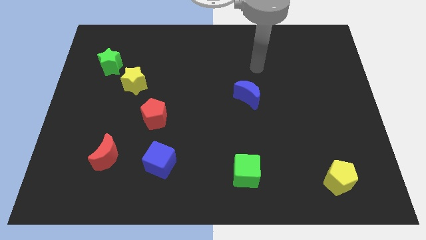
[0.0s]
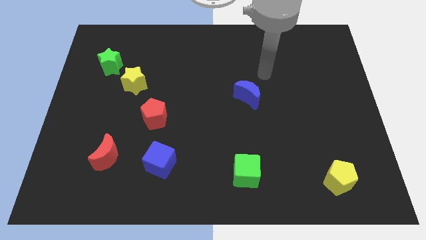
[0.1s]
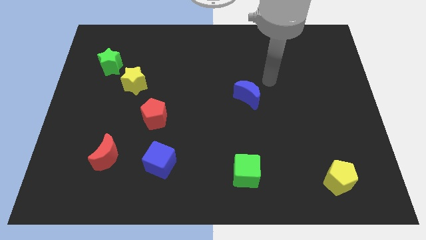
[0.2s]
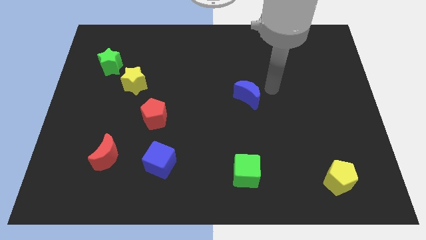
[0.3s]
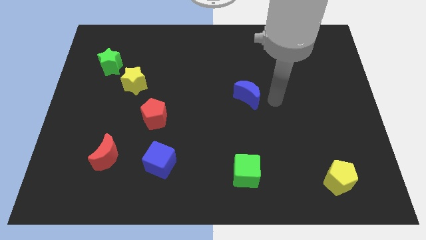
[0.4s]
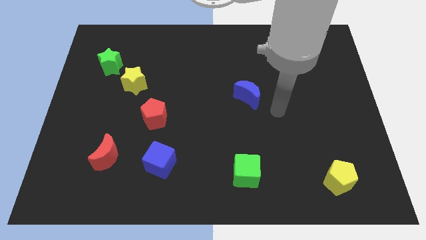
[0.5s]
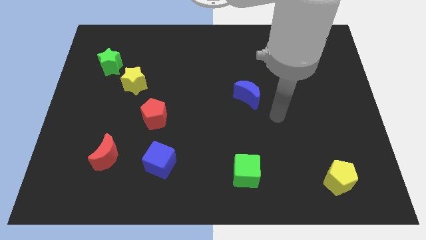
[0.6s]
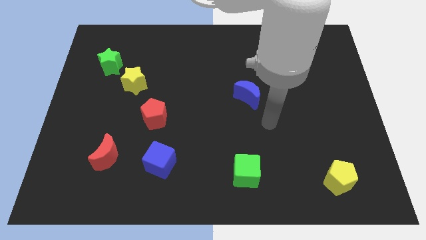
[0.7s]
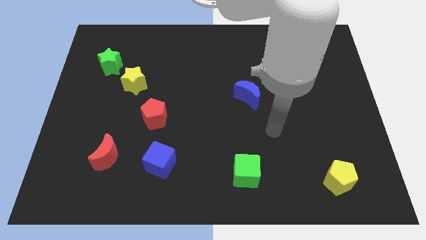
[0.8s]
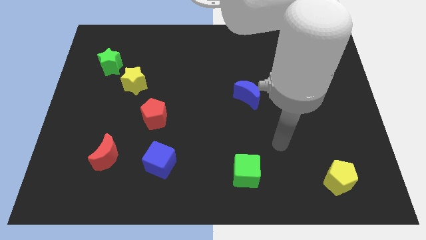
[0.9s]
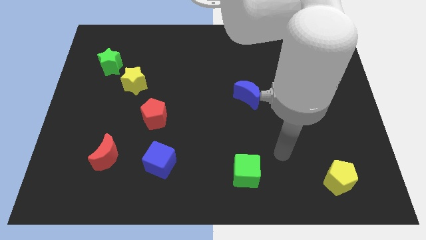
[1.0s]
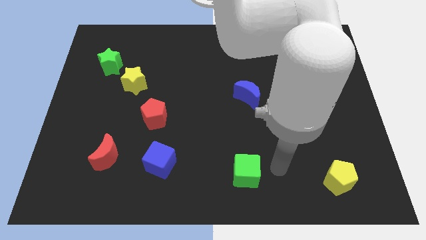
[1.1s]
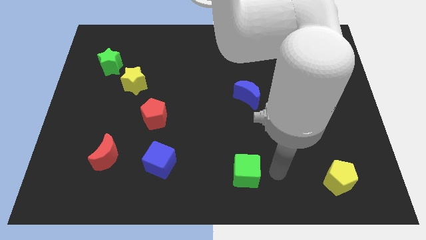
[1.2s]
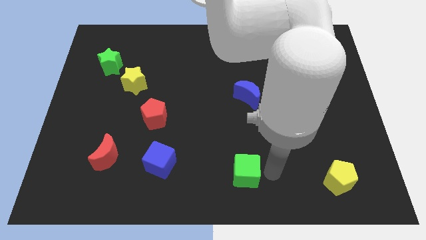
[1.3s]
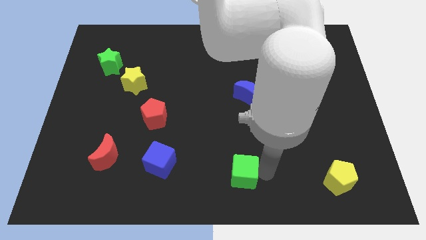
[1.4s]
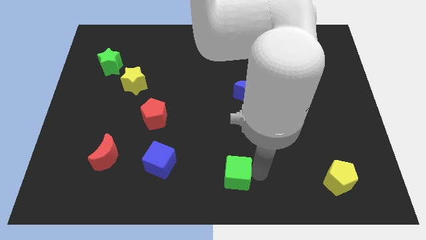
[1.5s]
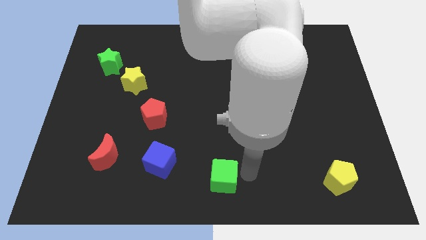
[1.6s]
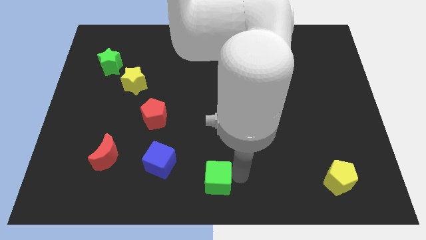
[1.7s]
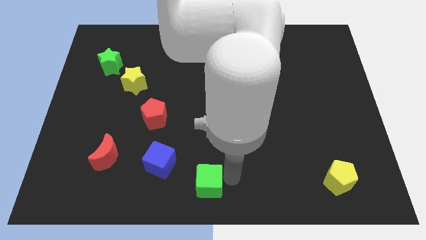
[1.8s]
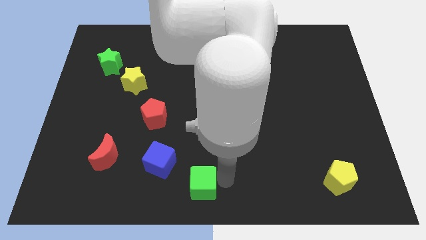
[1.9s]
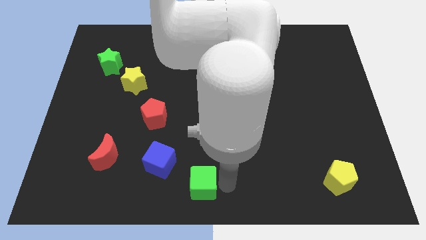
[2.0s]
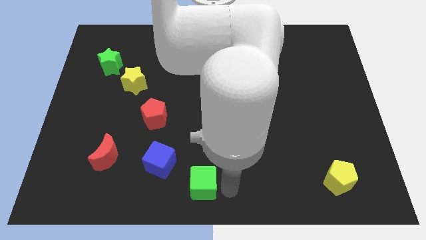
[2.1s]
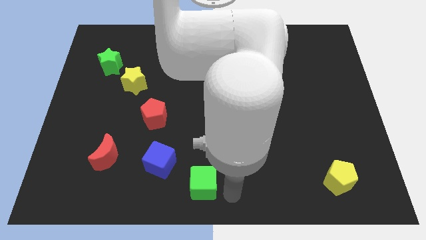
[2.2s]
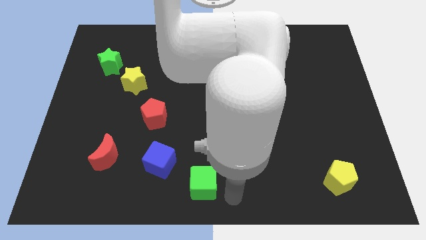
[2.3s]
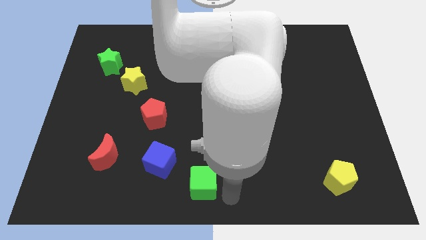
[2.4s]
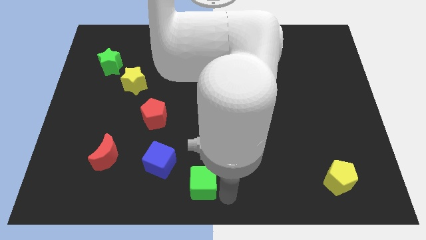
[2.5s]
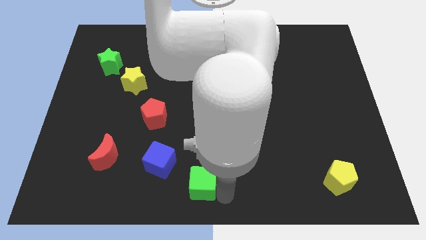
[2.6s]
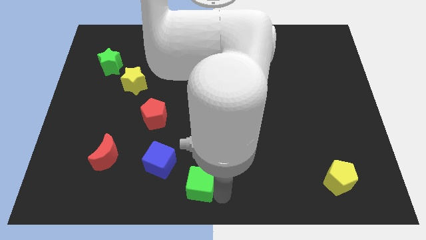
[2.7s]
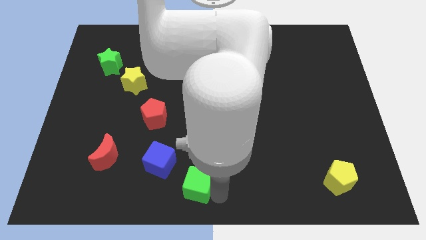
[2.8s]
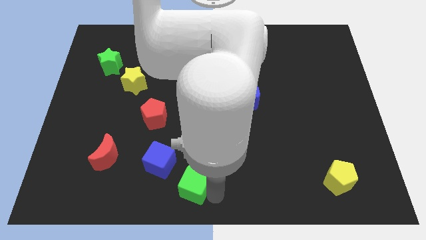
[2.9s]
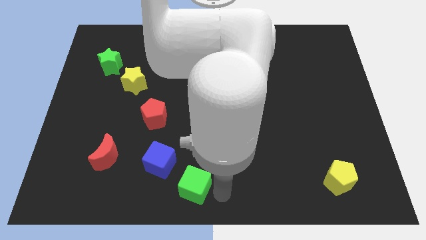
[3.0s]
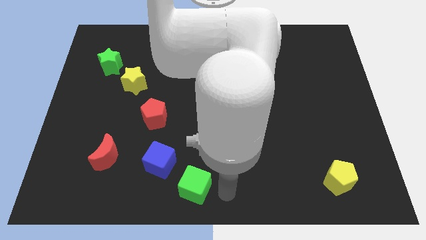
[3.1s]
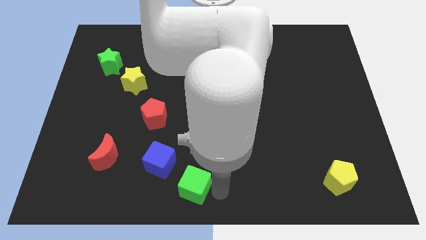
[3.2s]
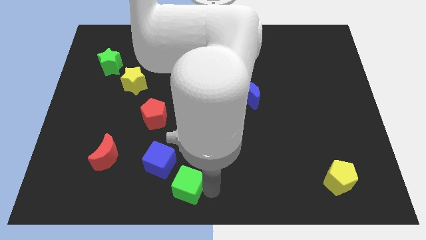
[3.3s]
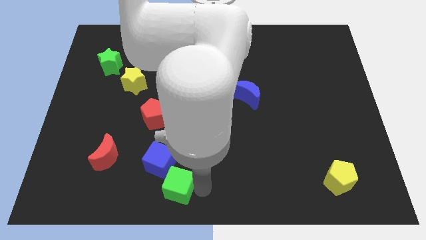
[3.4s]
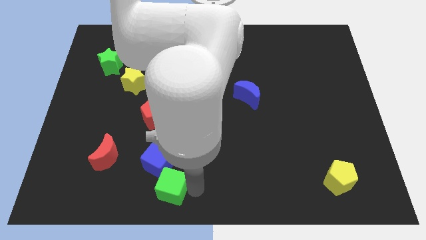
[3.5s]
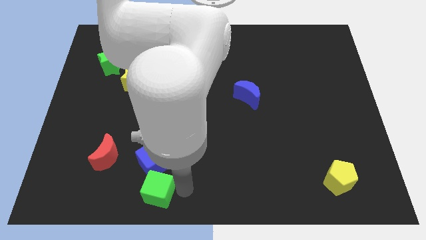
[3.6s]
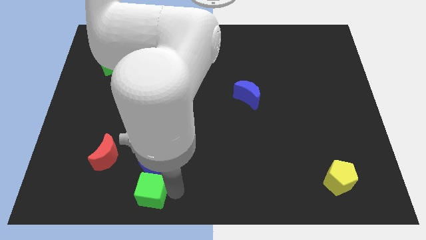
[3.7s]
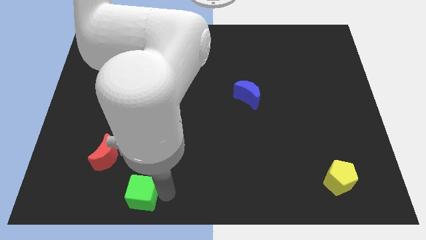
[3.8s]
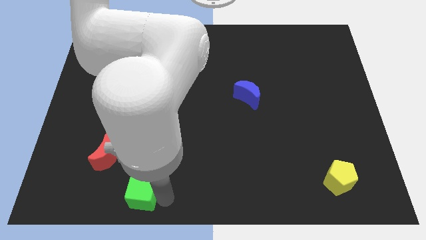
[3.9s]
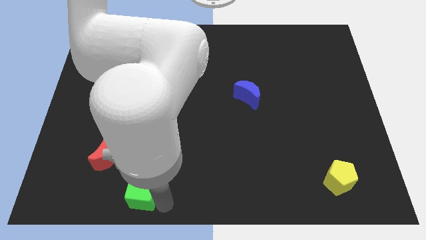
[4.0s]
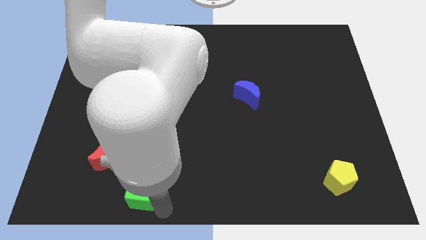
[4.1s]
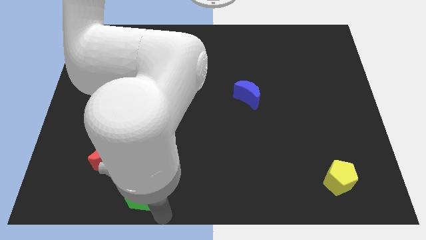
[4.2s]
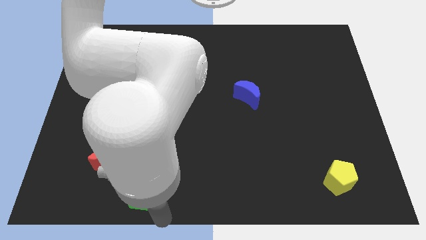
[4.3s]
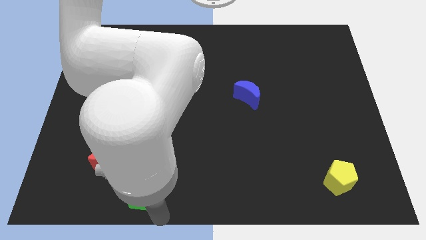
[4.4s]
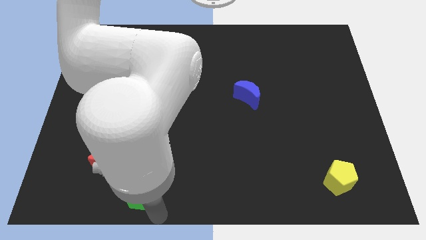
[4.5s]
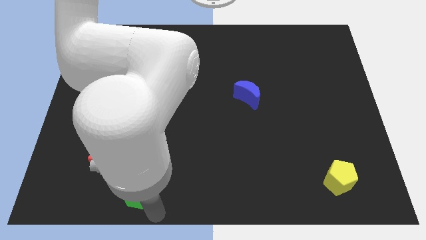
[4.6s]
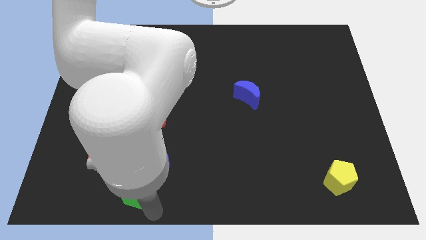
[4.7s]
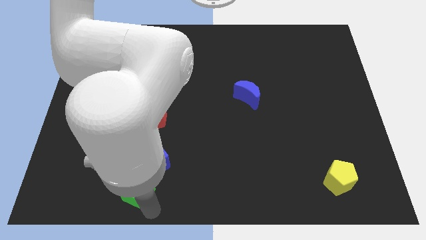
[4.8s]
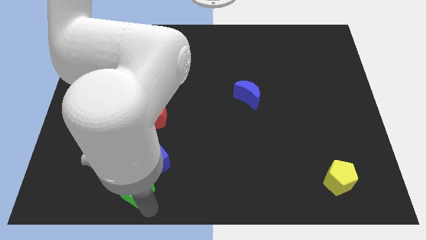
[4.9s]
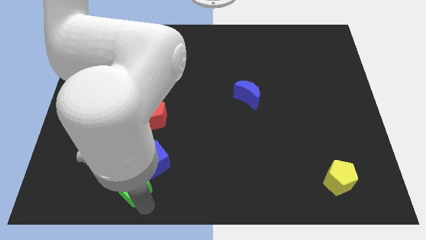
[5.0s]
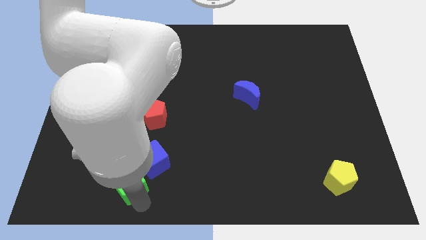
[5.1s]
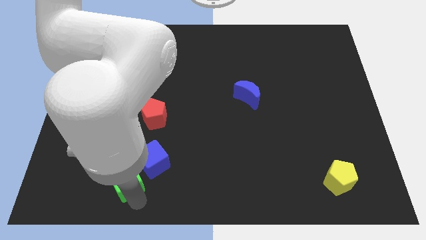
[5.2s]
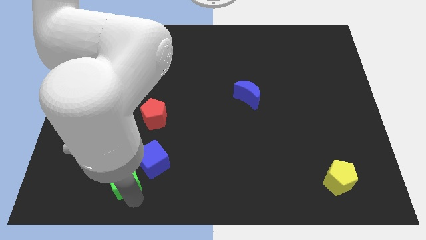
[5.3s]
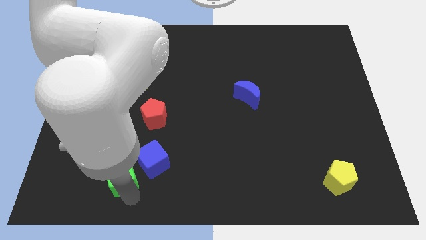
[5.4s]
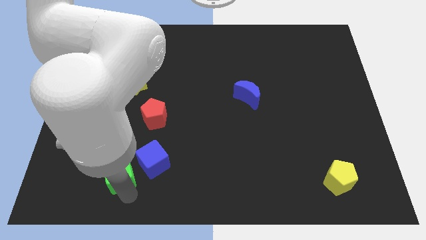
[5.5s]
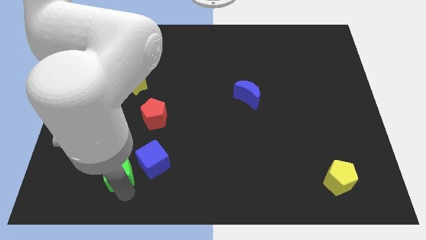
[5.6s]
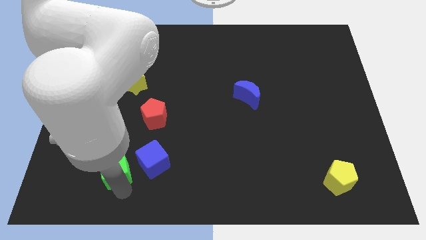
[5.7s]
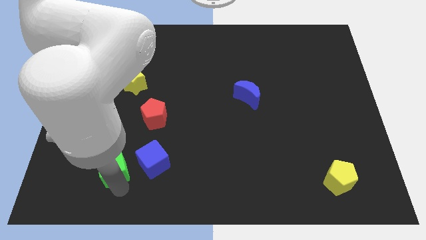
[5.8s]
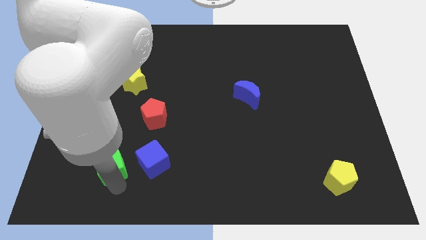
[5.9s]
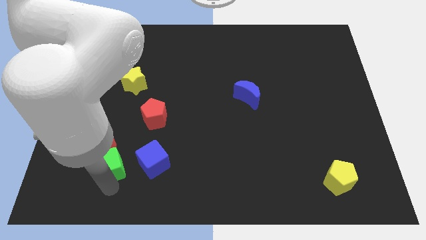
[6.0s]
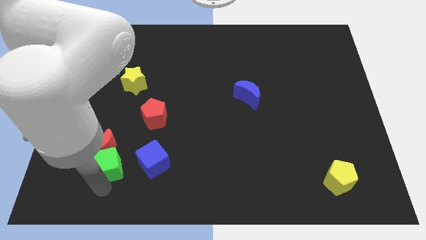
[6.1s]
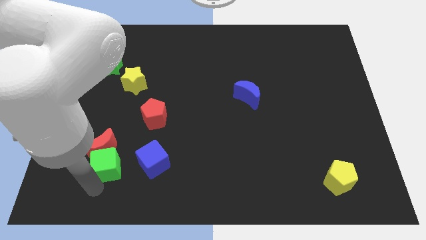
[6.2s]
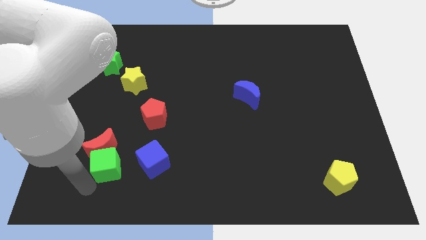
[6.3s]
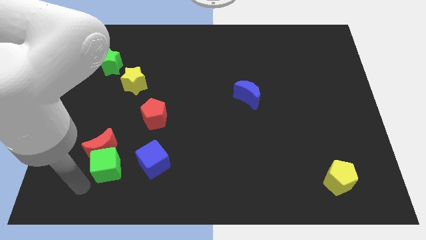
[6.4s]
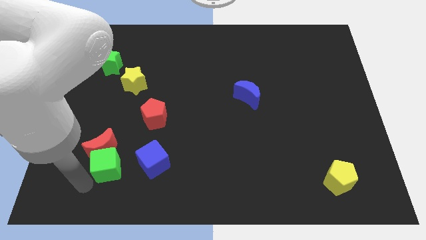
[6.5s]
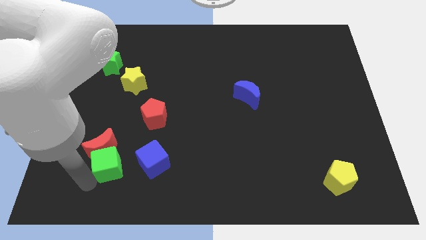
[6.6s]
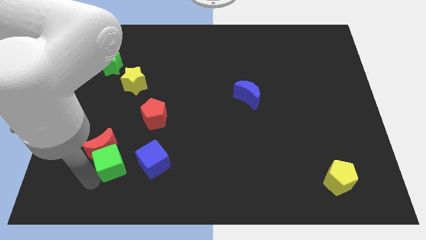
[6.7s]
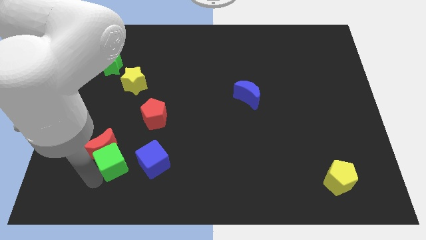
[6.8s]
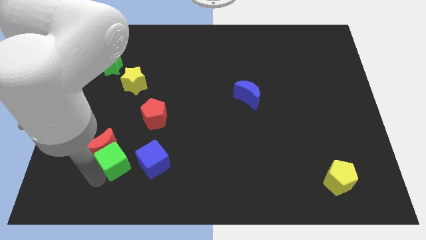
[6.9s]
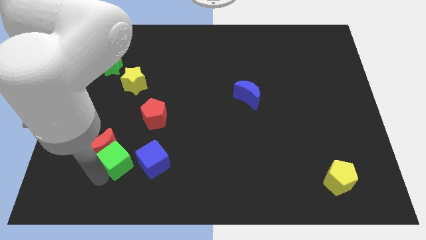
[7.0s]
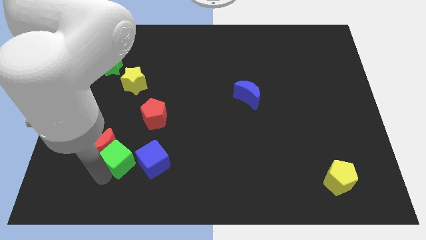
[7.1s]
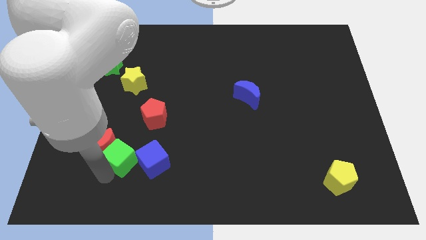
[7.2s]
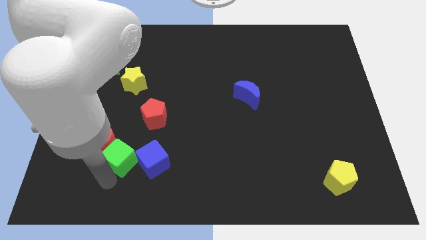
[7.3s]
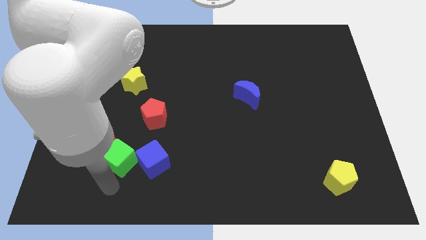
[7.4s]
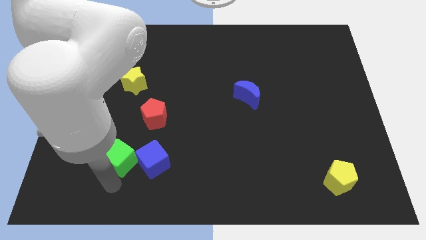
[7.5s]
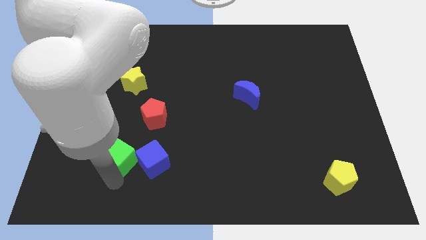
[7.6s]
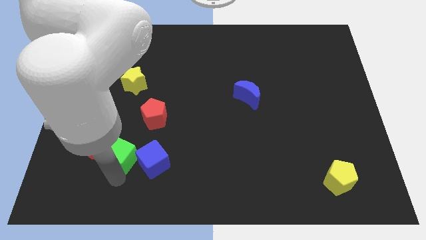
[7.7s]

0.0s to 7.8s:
slide the green cube to the bottom left of the red pentagon

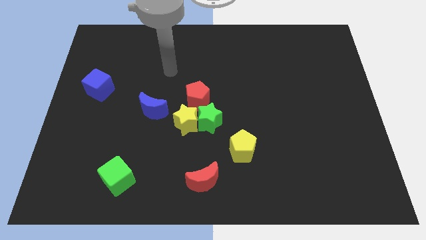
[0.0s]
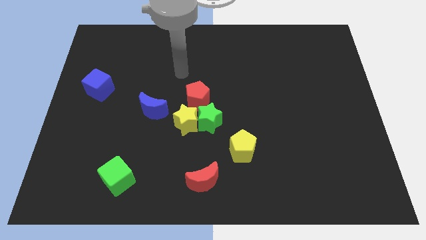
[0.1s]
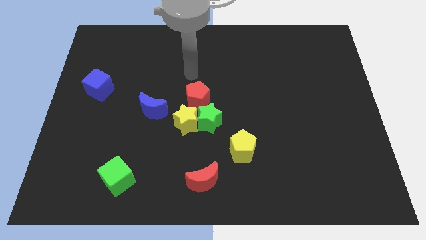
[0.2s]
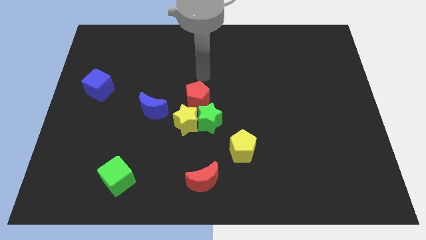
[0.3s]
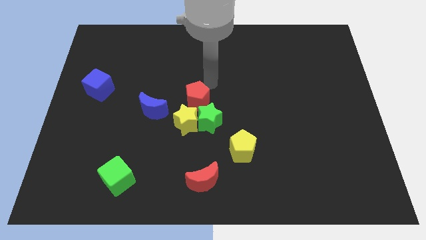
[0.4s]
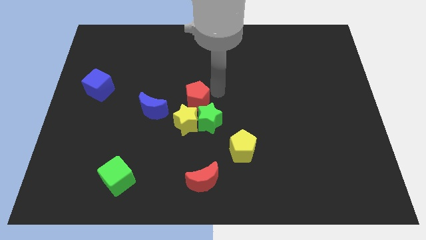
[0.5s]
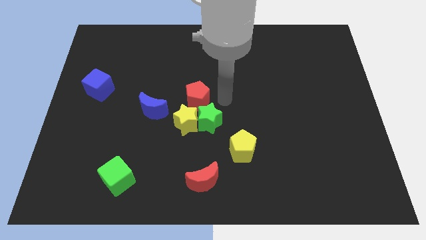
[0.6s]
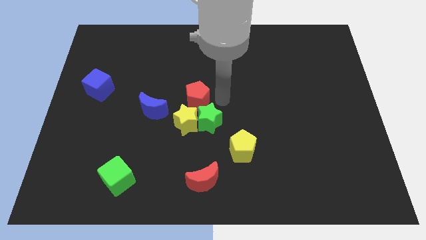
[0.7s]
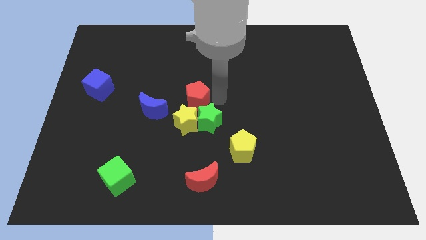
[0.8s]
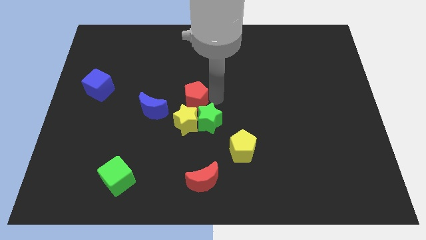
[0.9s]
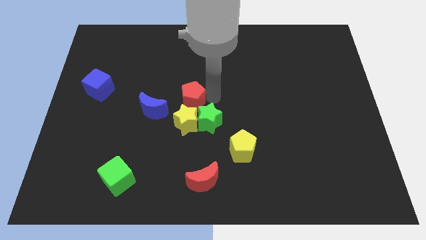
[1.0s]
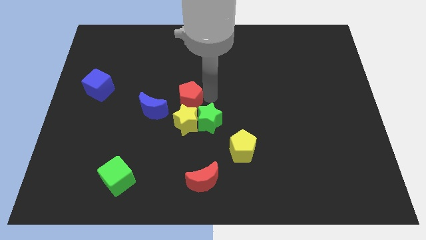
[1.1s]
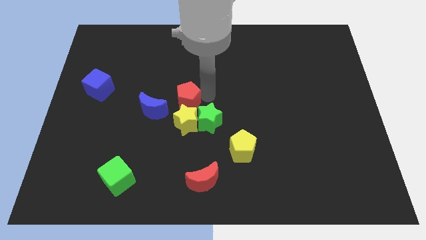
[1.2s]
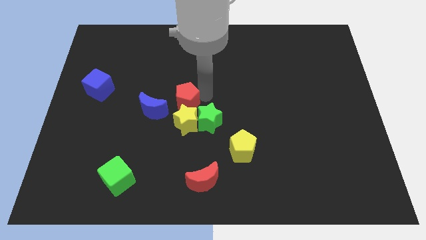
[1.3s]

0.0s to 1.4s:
push the red pentagon to the top left side of the yellow star
